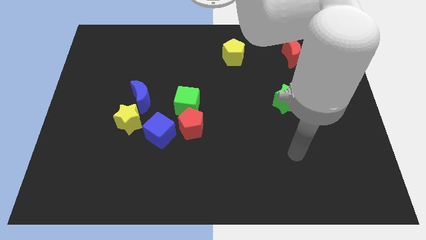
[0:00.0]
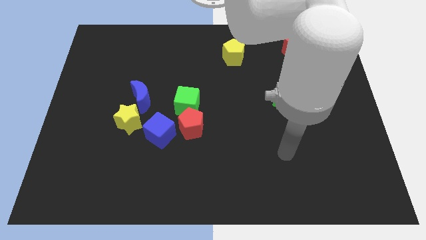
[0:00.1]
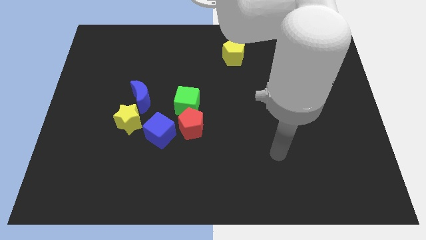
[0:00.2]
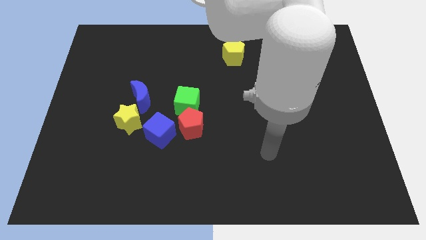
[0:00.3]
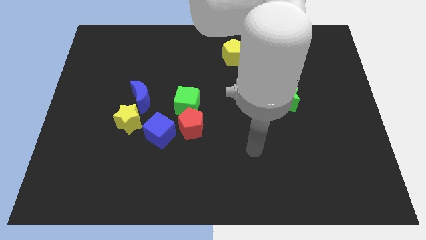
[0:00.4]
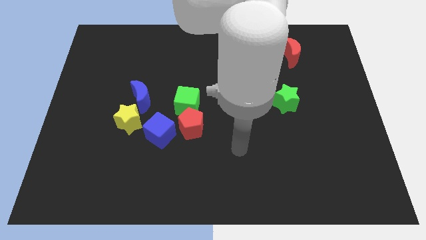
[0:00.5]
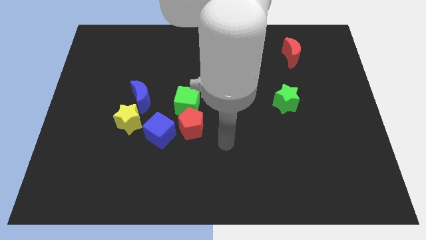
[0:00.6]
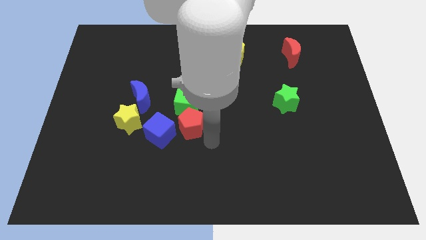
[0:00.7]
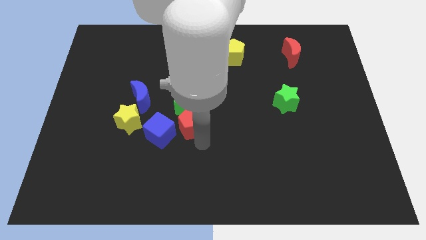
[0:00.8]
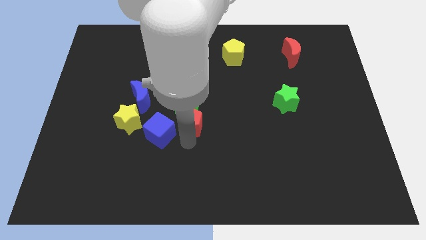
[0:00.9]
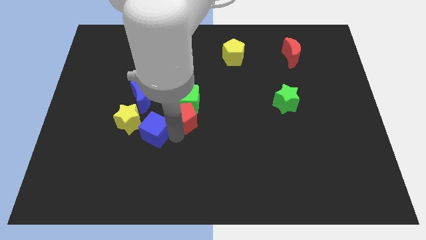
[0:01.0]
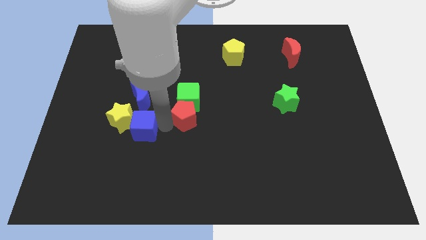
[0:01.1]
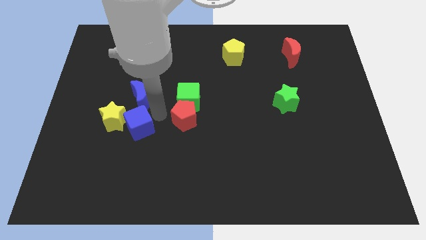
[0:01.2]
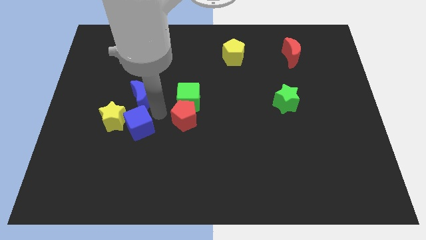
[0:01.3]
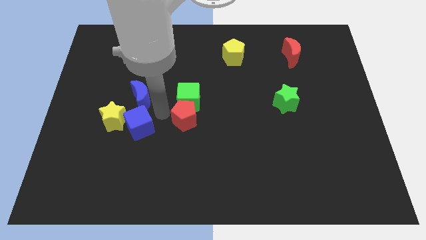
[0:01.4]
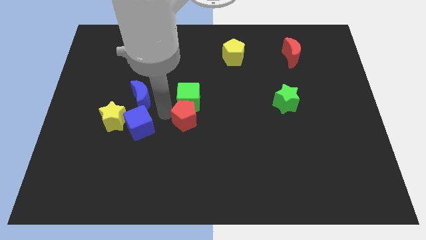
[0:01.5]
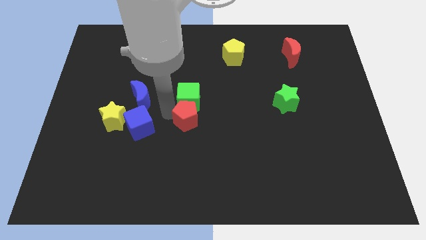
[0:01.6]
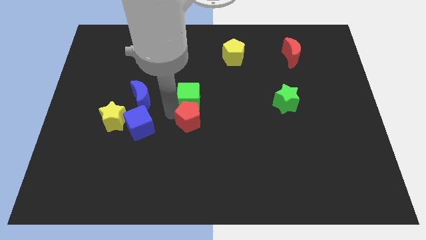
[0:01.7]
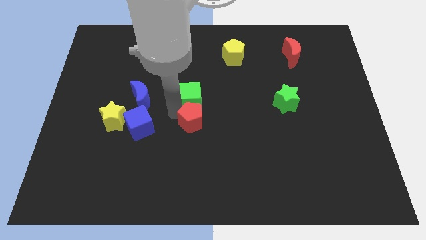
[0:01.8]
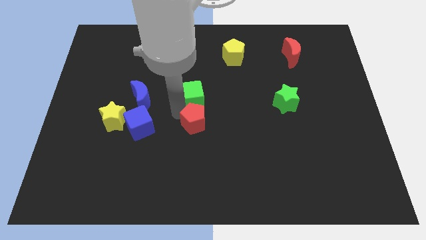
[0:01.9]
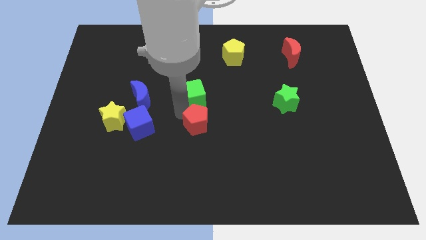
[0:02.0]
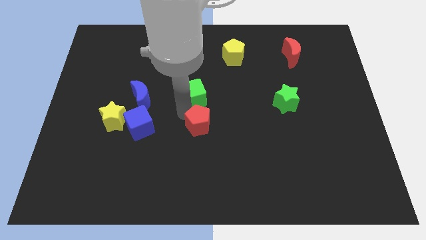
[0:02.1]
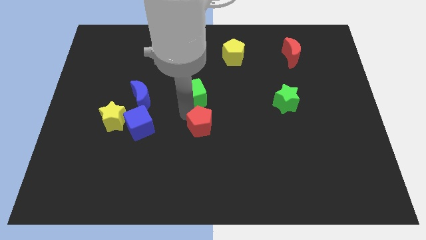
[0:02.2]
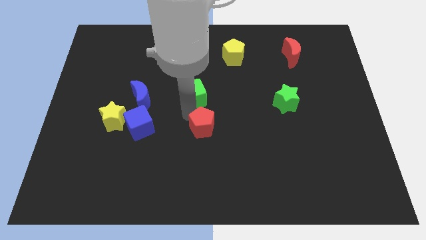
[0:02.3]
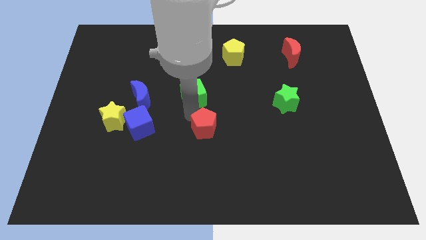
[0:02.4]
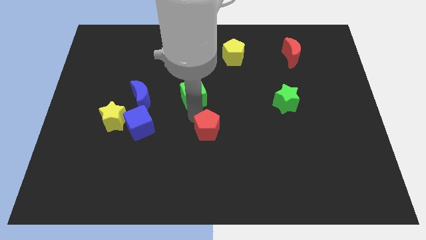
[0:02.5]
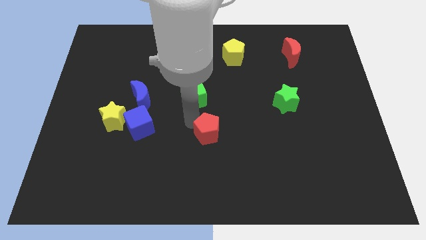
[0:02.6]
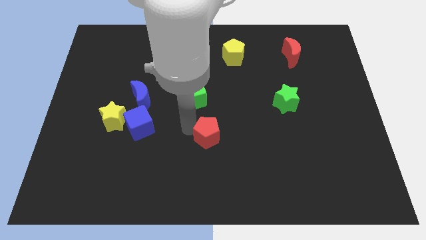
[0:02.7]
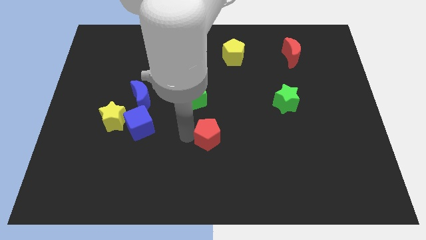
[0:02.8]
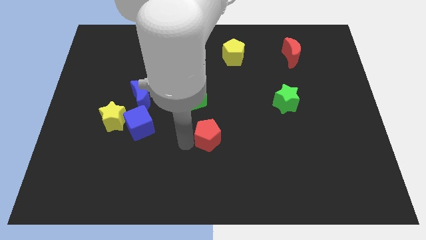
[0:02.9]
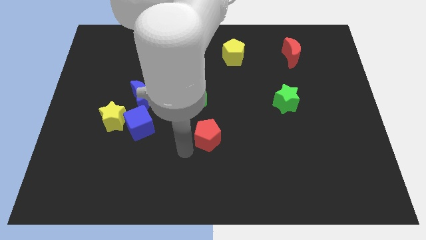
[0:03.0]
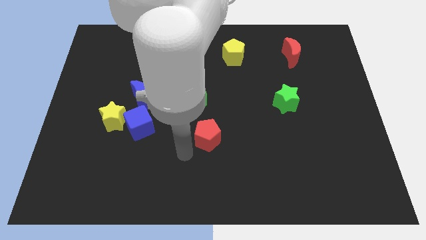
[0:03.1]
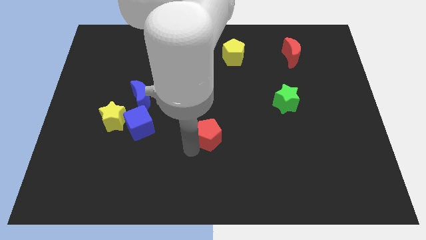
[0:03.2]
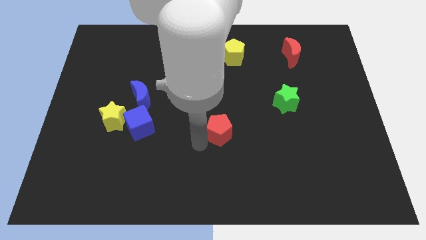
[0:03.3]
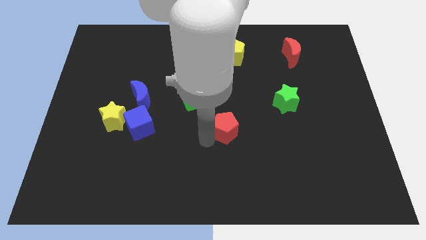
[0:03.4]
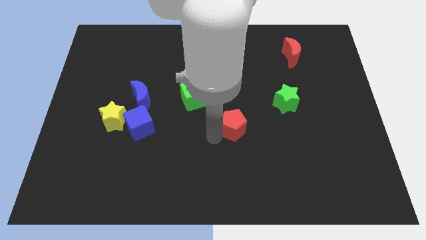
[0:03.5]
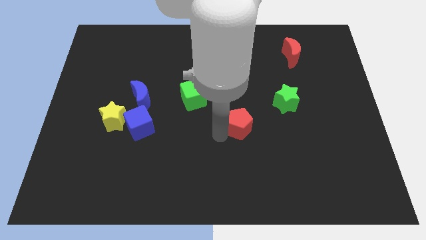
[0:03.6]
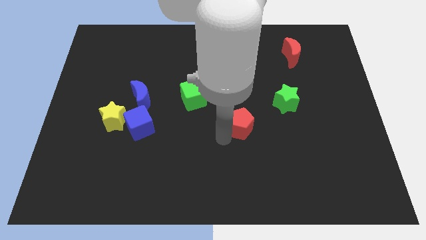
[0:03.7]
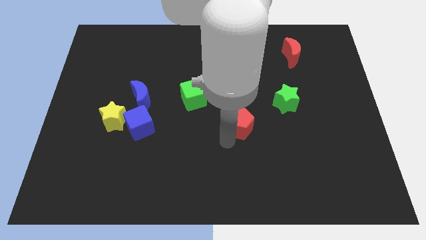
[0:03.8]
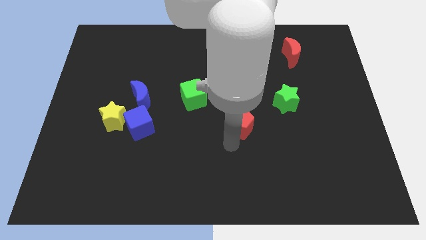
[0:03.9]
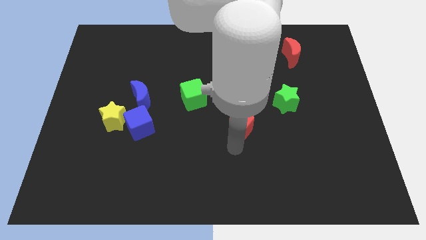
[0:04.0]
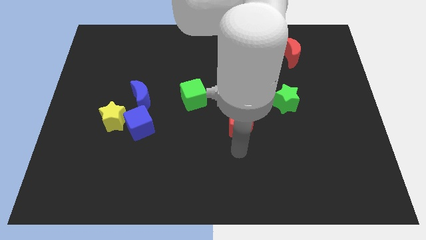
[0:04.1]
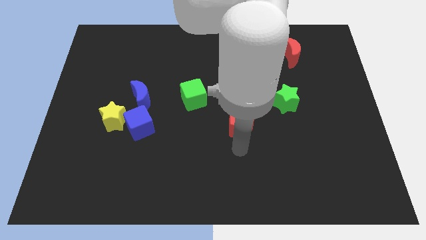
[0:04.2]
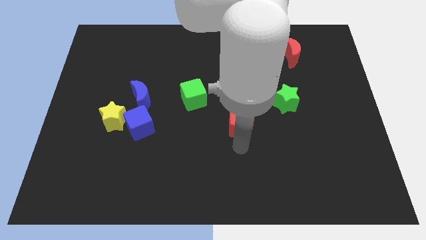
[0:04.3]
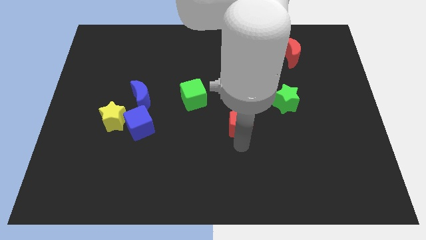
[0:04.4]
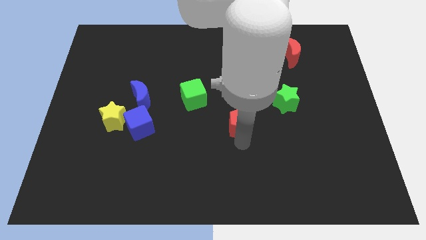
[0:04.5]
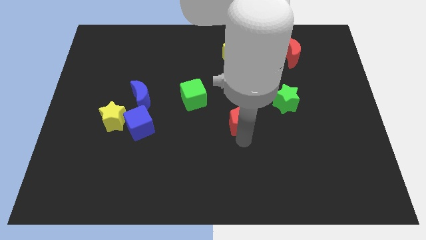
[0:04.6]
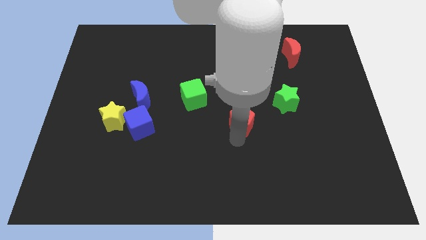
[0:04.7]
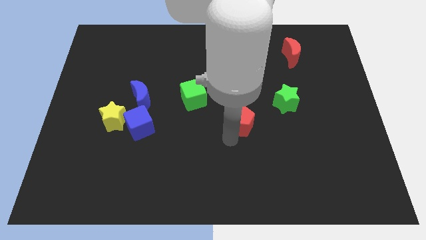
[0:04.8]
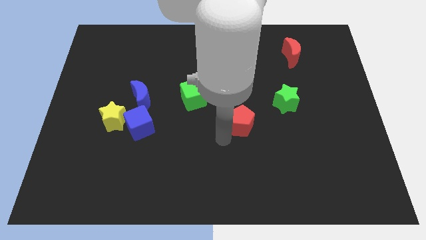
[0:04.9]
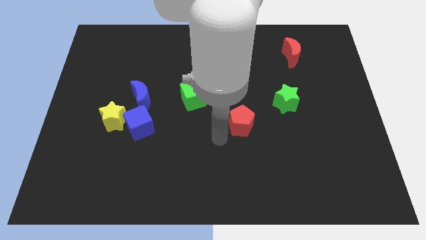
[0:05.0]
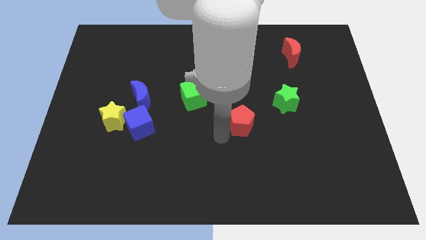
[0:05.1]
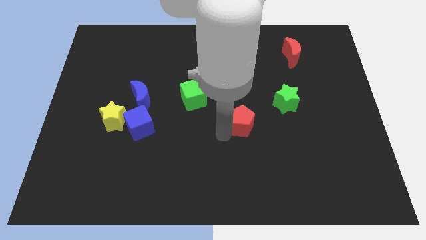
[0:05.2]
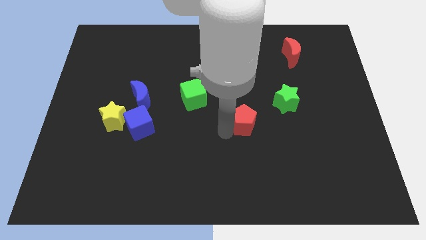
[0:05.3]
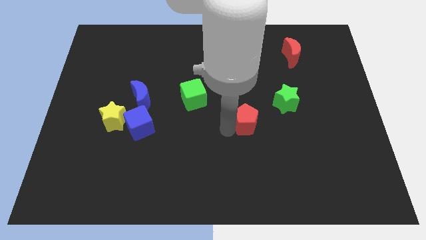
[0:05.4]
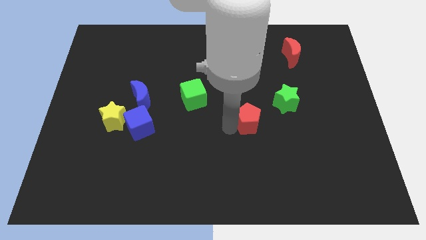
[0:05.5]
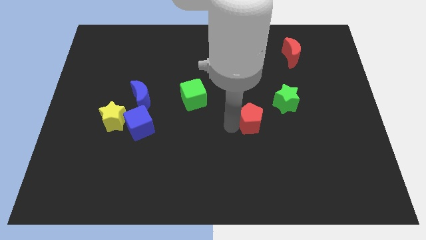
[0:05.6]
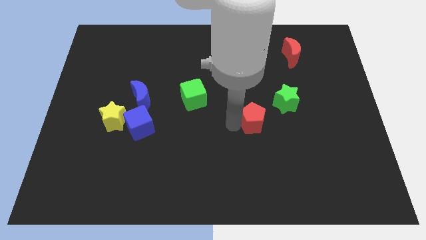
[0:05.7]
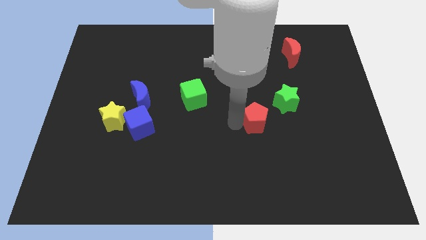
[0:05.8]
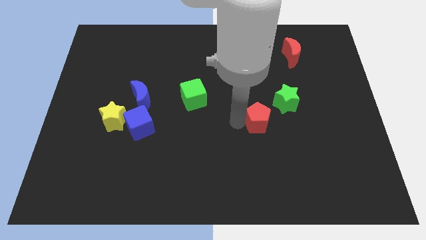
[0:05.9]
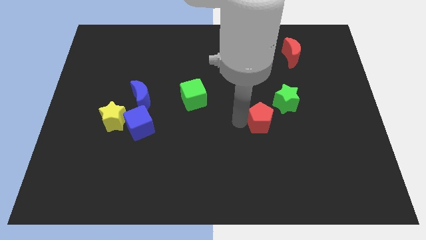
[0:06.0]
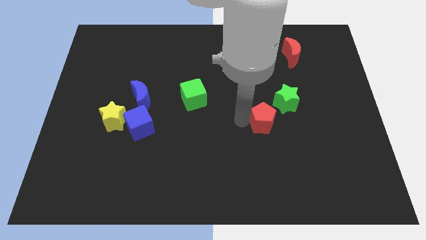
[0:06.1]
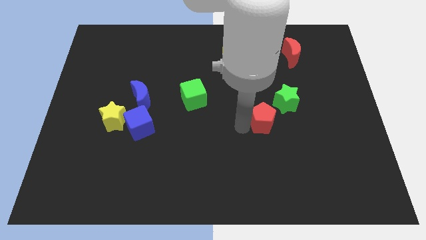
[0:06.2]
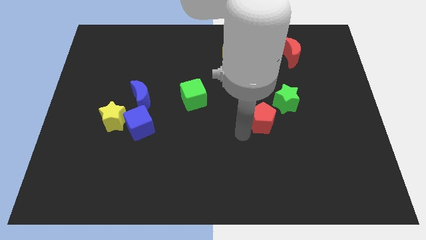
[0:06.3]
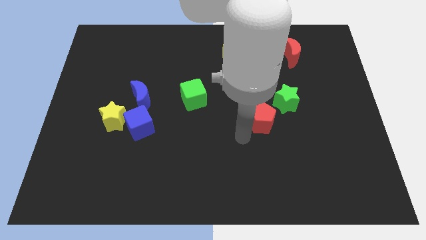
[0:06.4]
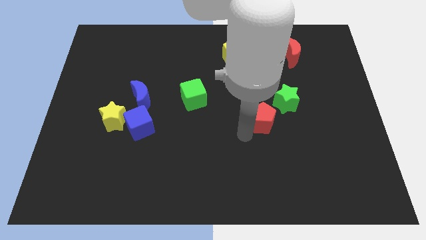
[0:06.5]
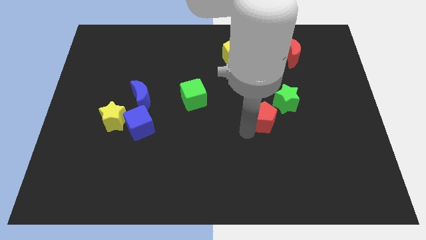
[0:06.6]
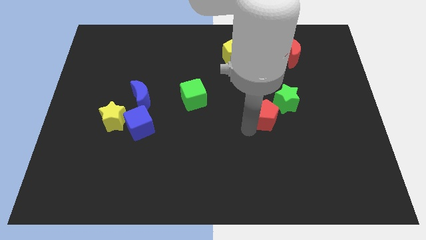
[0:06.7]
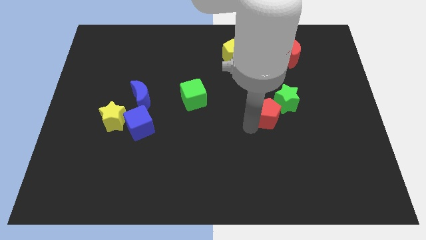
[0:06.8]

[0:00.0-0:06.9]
slide the red pentagon towards the green star
